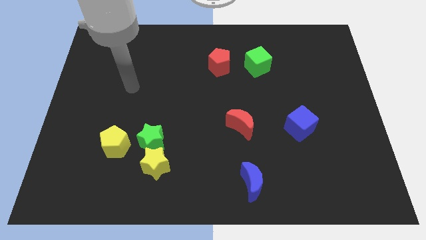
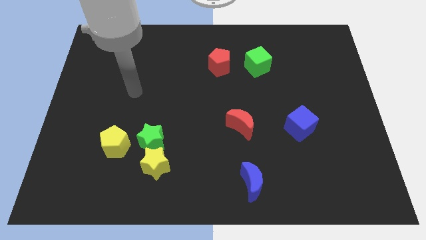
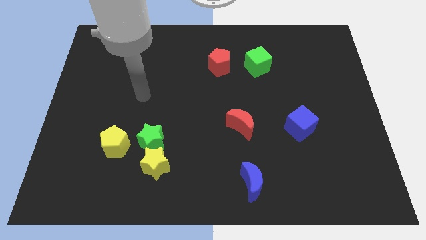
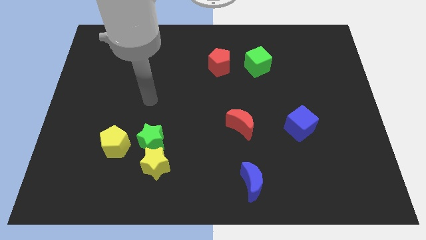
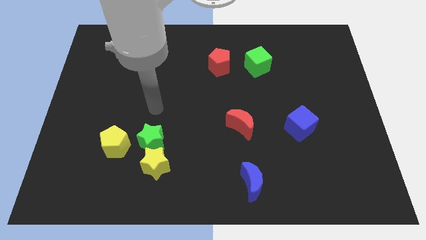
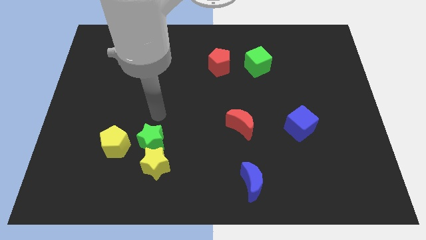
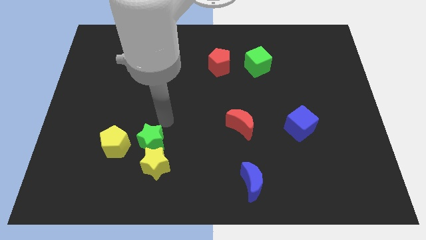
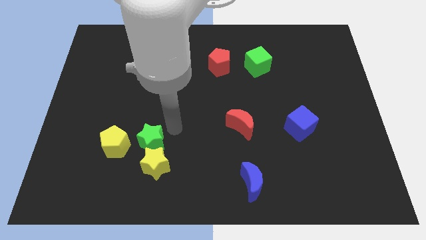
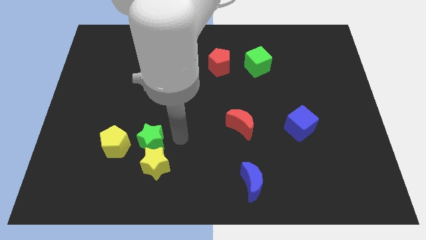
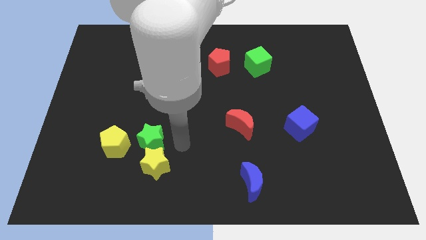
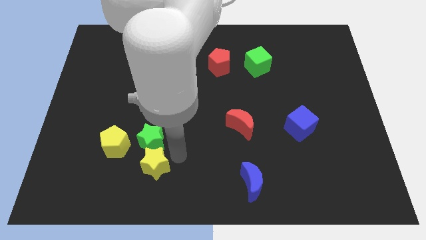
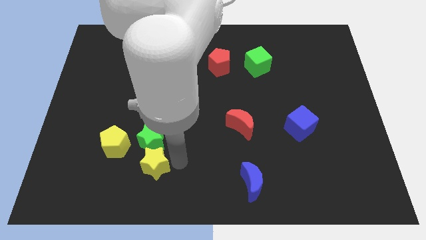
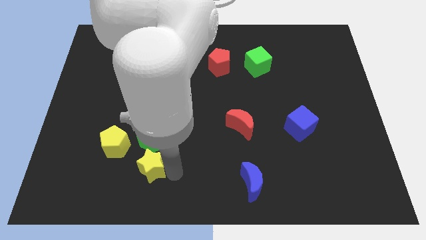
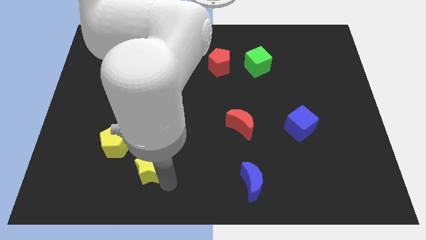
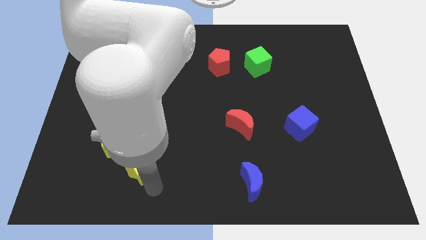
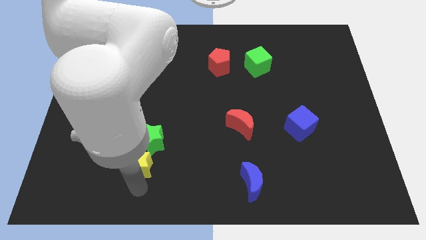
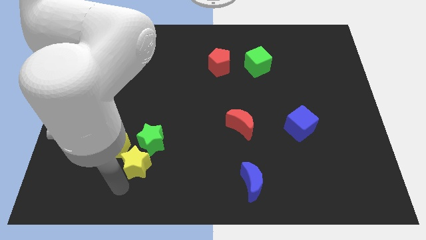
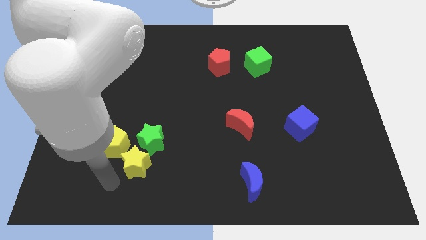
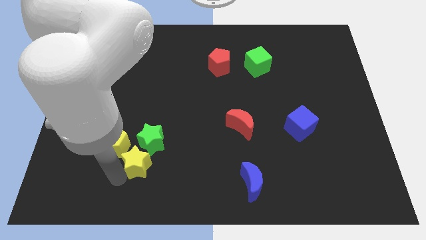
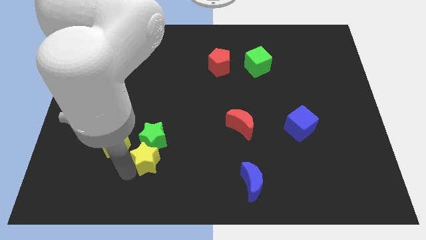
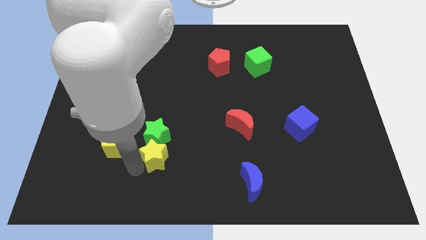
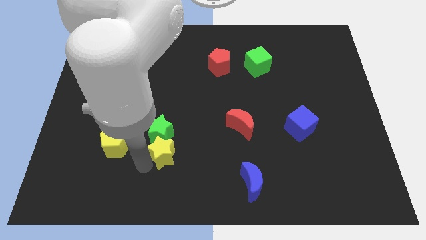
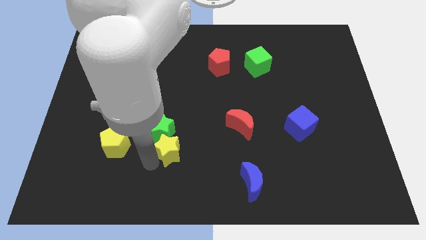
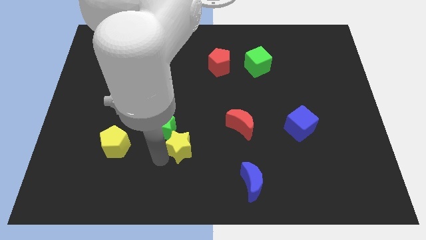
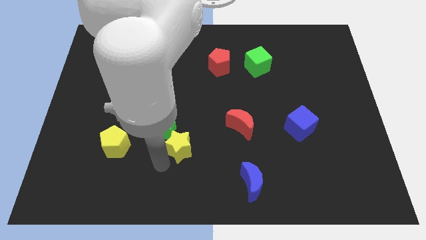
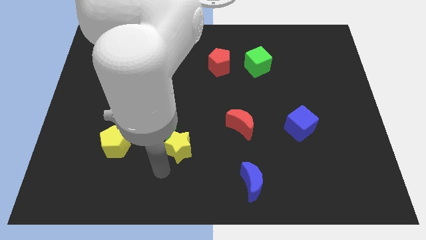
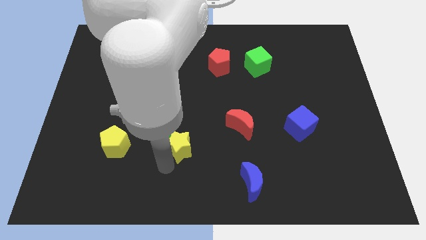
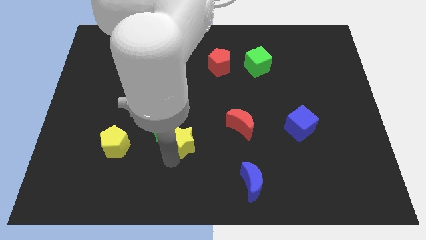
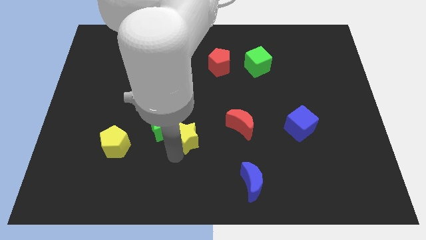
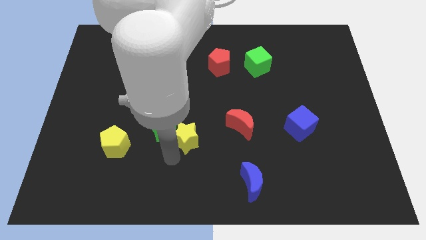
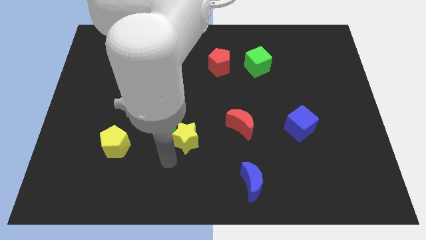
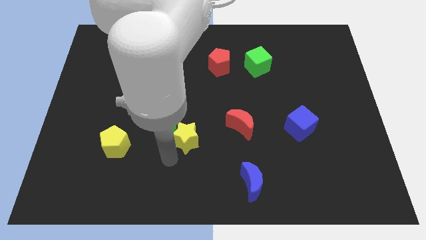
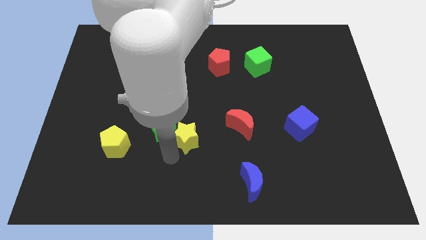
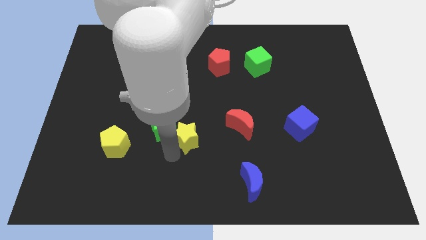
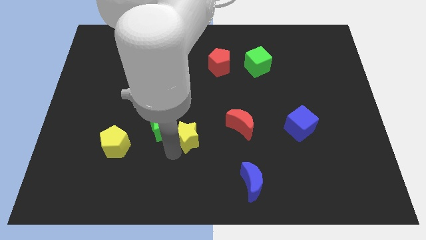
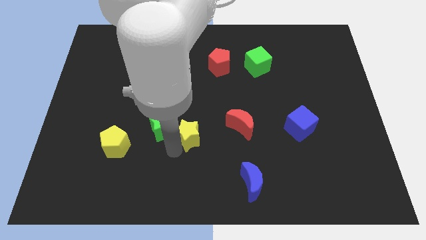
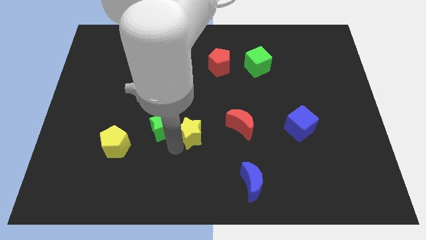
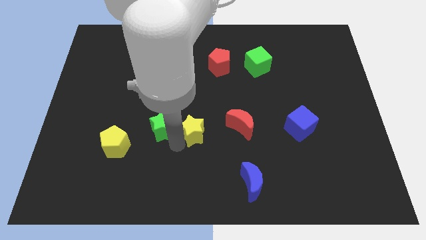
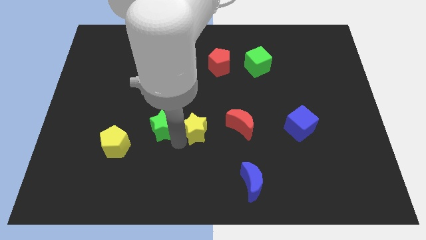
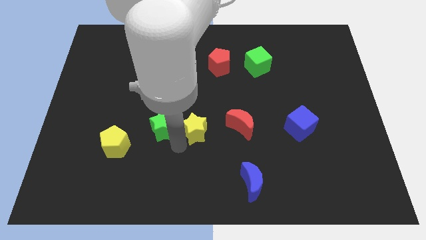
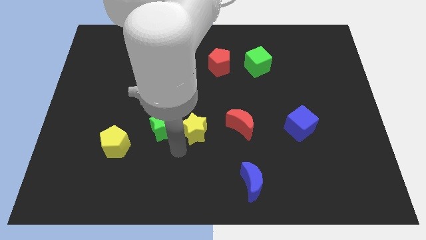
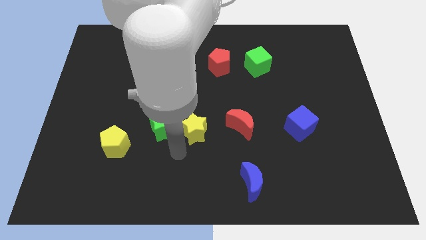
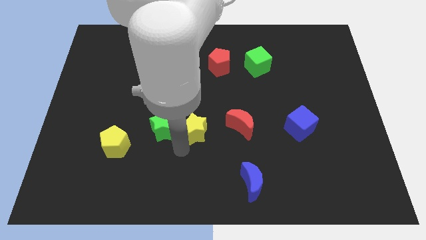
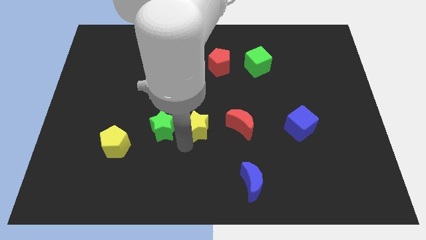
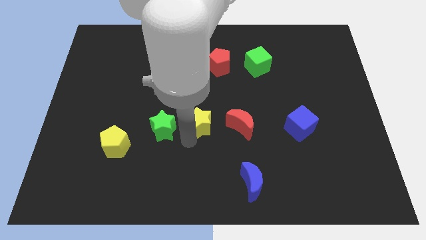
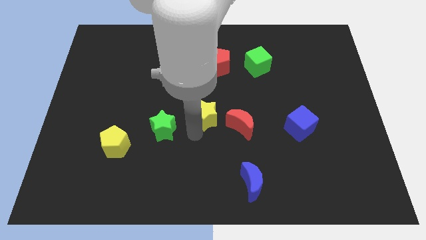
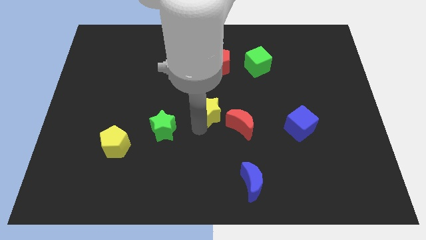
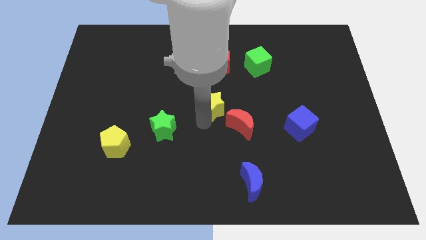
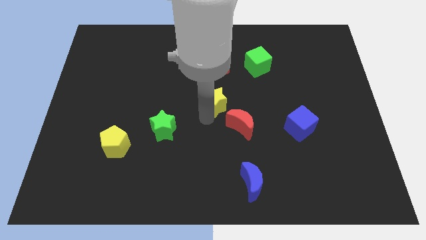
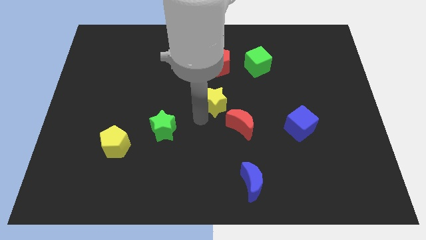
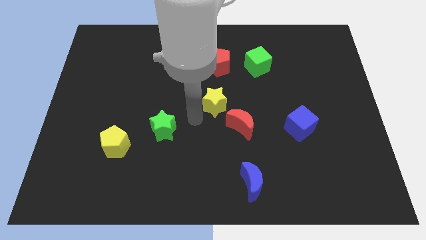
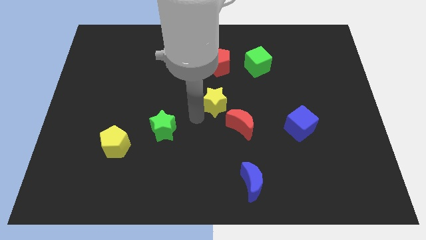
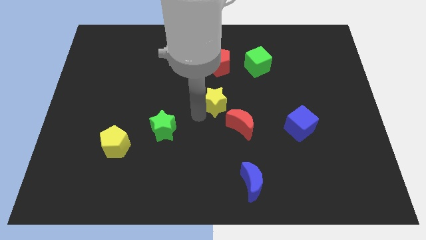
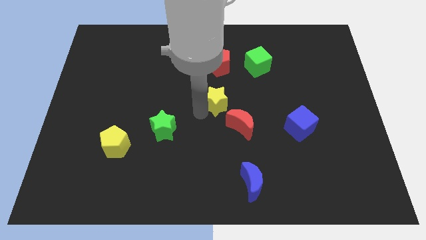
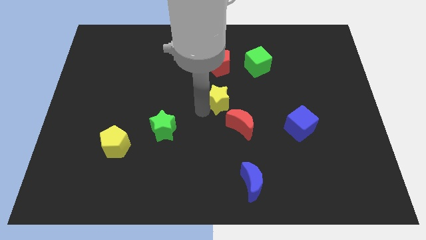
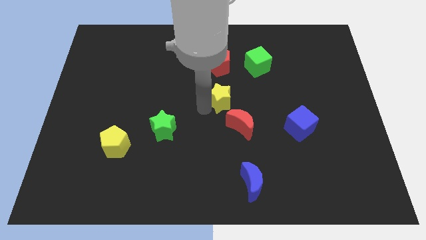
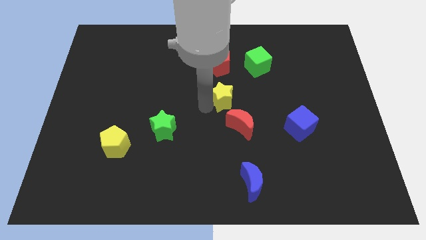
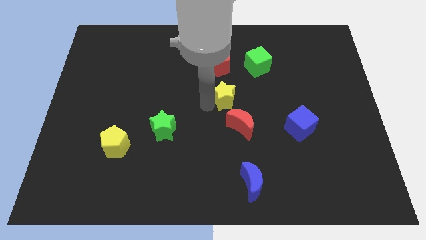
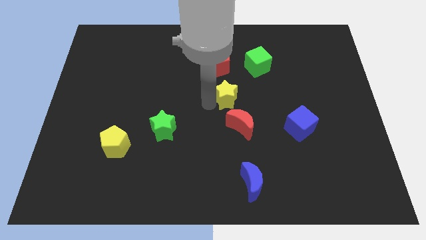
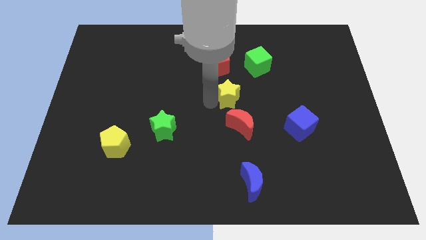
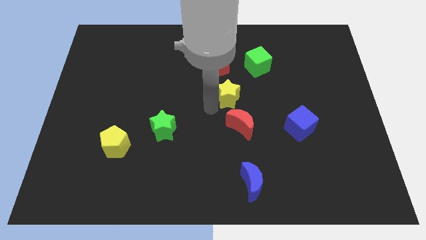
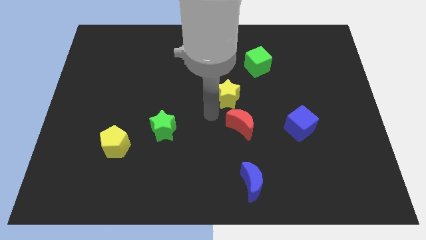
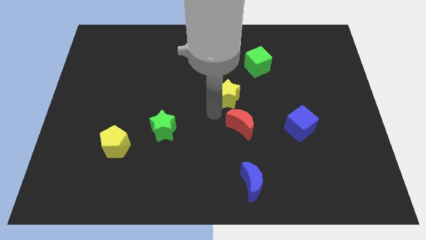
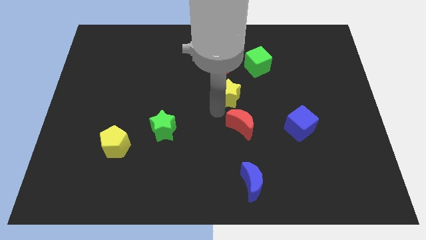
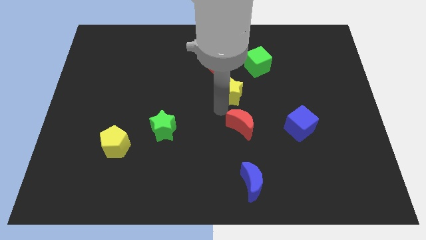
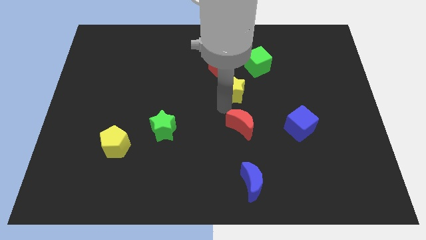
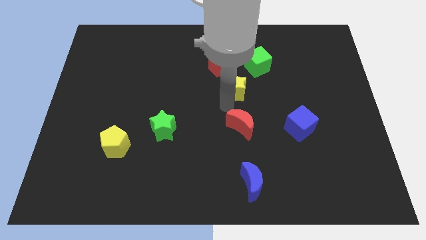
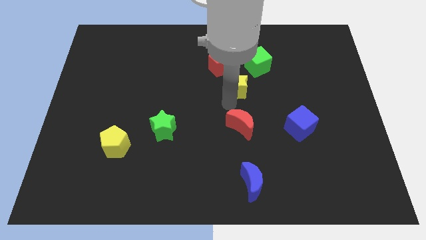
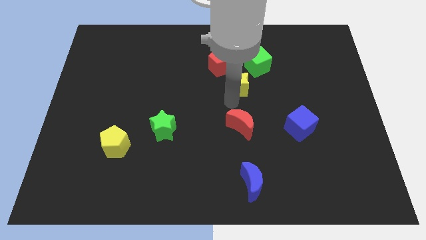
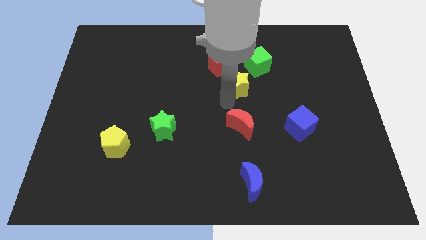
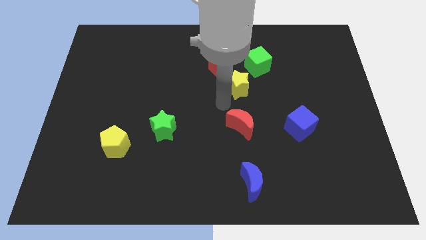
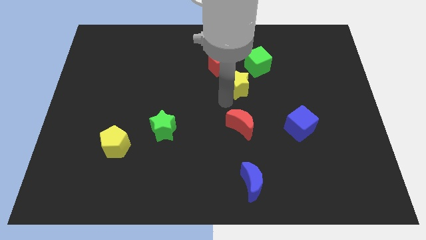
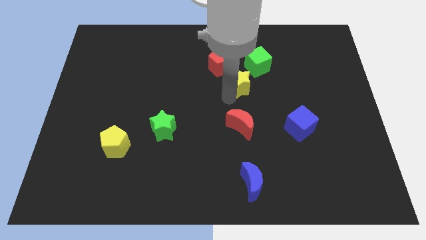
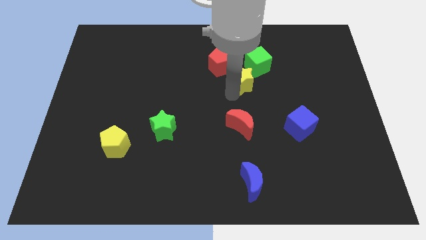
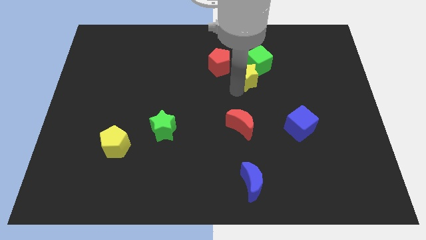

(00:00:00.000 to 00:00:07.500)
slide the yellow star next to the green cube
